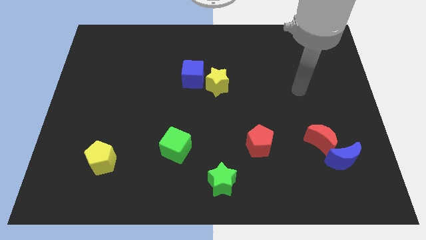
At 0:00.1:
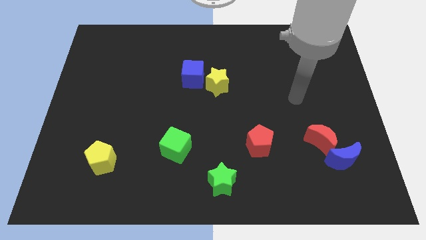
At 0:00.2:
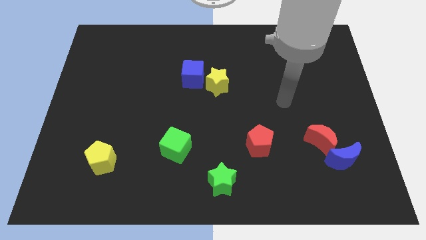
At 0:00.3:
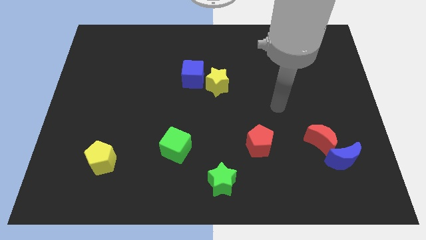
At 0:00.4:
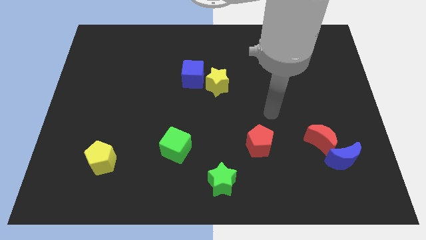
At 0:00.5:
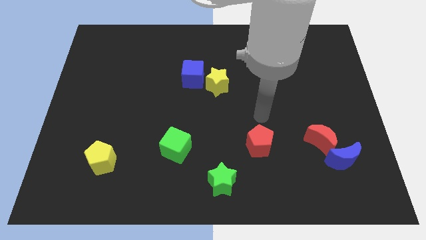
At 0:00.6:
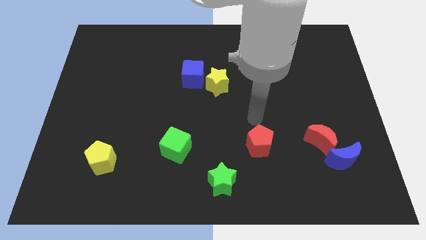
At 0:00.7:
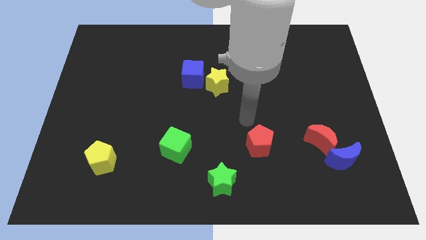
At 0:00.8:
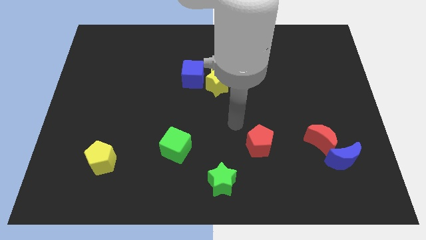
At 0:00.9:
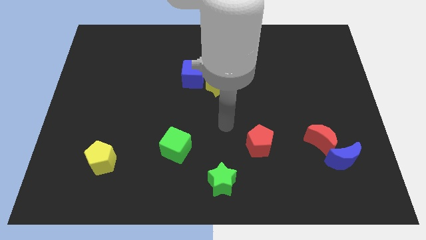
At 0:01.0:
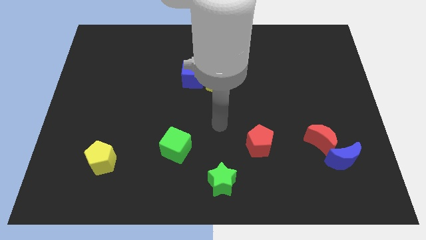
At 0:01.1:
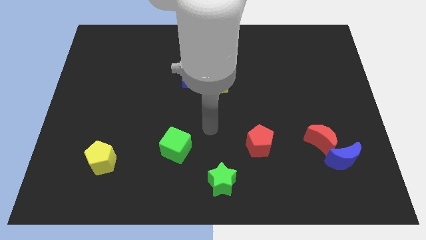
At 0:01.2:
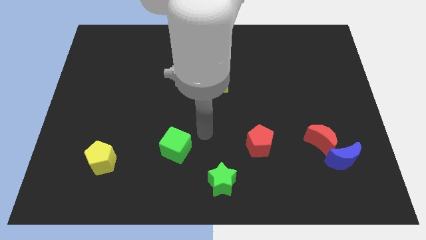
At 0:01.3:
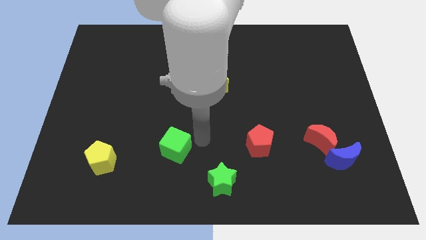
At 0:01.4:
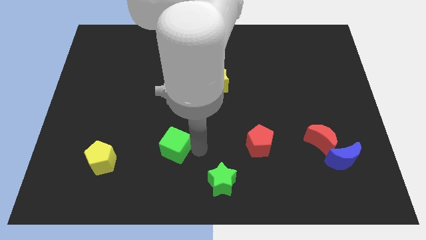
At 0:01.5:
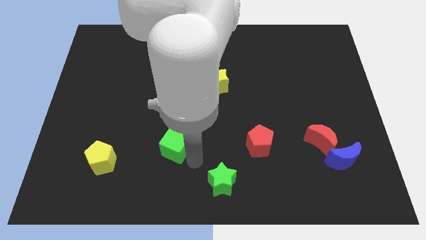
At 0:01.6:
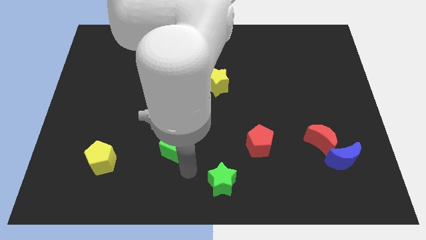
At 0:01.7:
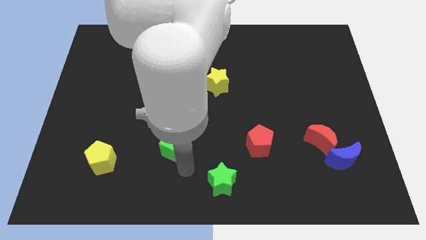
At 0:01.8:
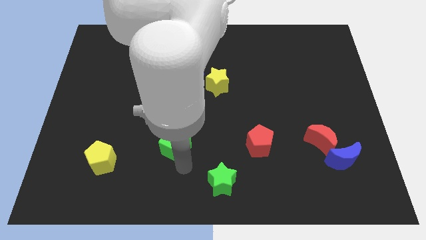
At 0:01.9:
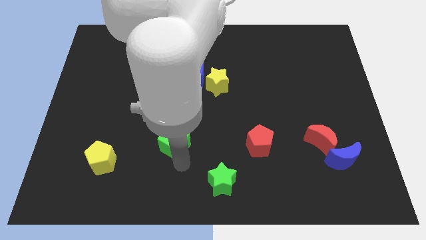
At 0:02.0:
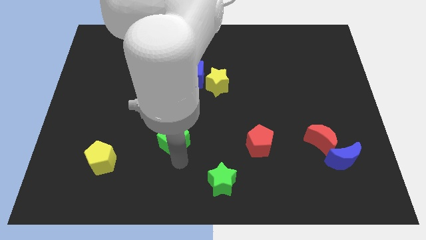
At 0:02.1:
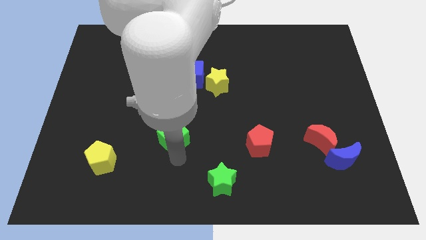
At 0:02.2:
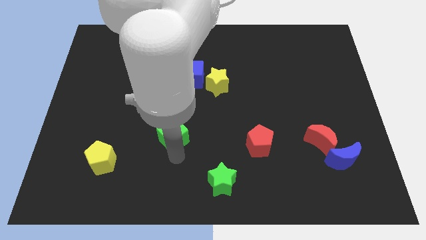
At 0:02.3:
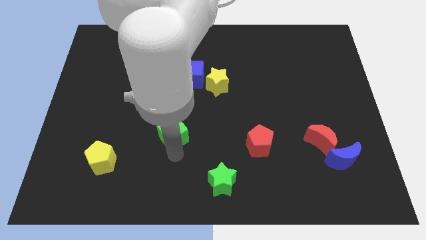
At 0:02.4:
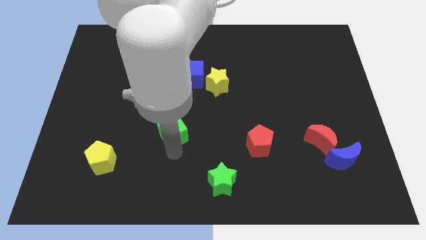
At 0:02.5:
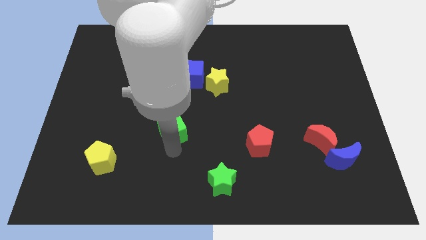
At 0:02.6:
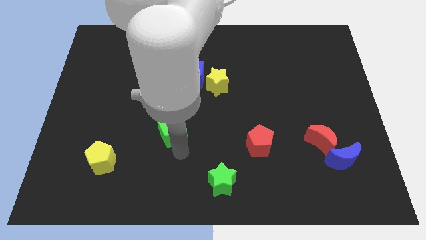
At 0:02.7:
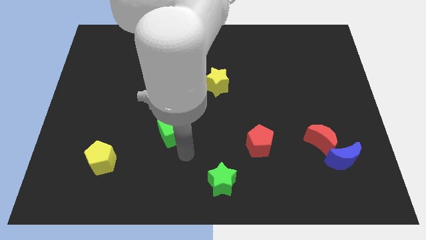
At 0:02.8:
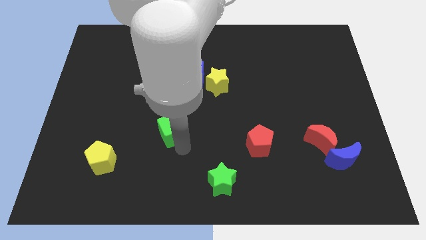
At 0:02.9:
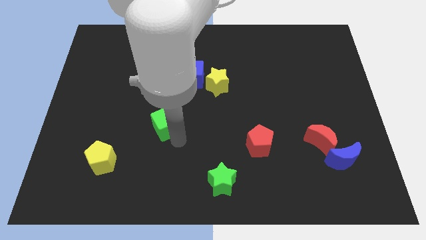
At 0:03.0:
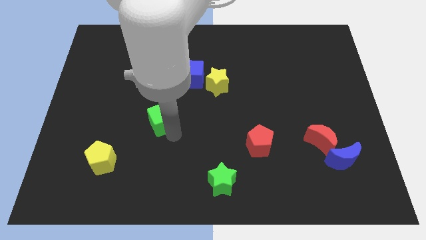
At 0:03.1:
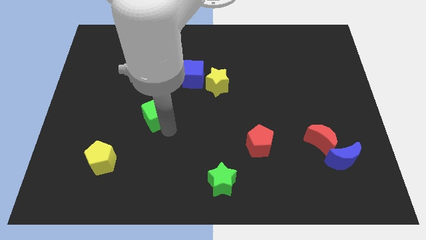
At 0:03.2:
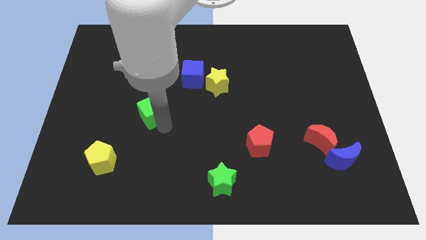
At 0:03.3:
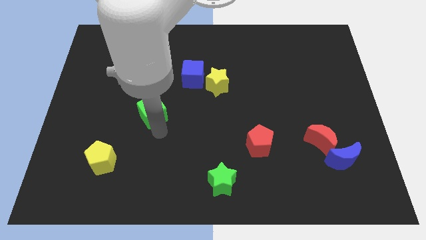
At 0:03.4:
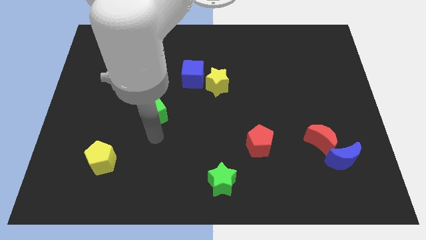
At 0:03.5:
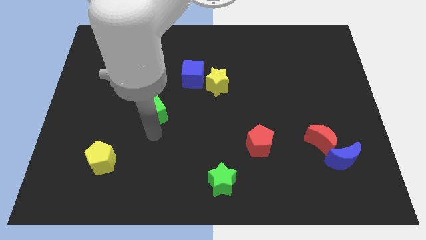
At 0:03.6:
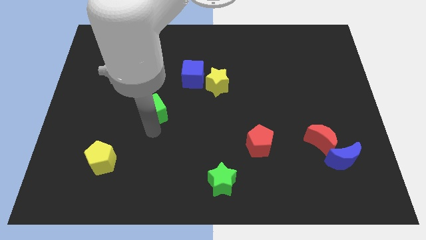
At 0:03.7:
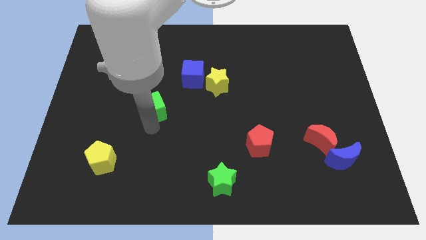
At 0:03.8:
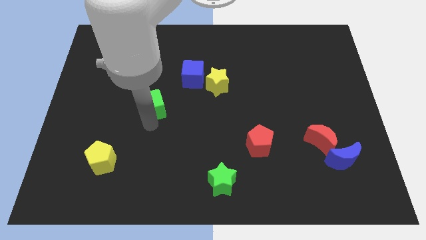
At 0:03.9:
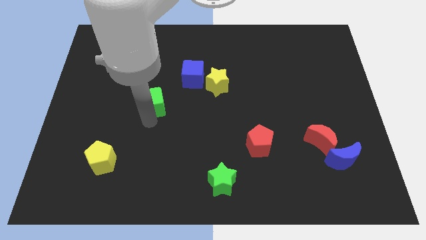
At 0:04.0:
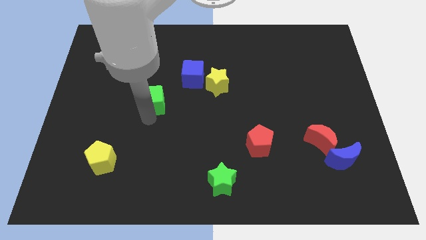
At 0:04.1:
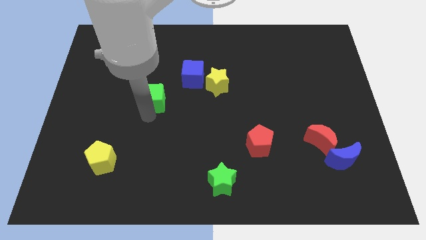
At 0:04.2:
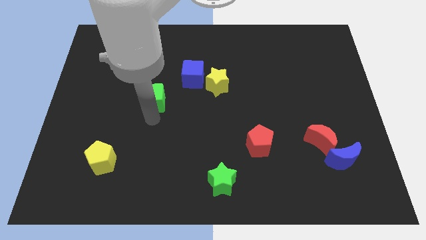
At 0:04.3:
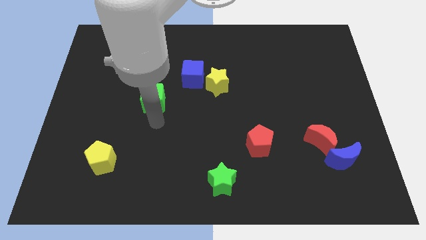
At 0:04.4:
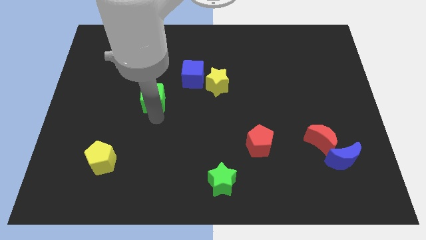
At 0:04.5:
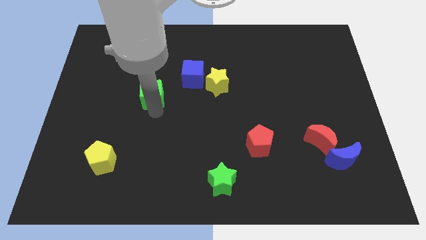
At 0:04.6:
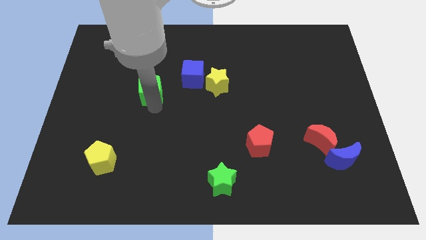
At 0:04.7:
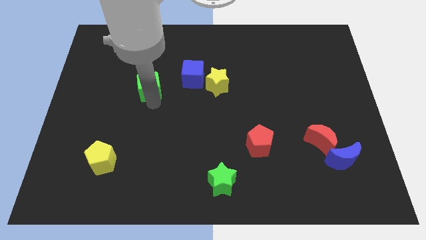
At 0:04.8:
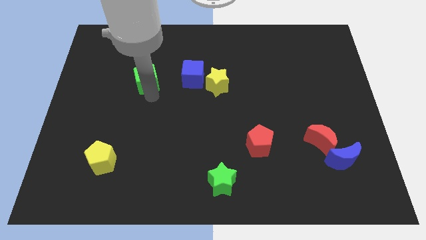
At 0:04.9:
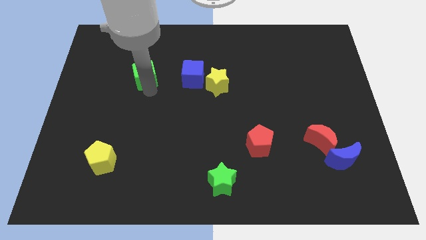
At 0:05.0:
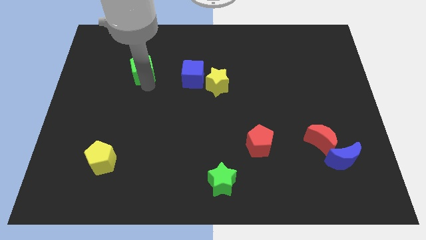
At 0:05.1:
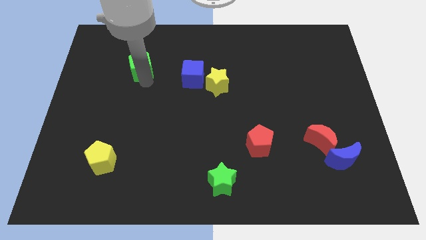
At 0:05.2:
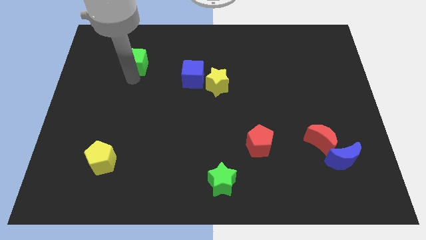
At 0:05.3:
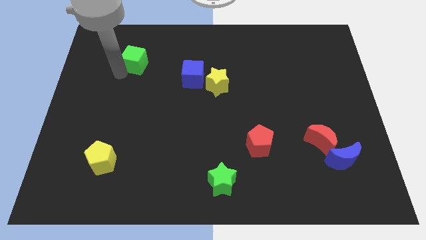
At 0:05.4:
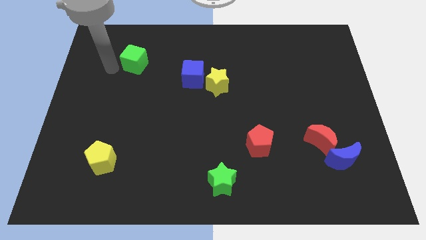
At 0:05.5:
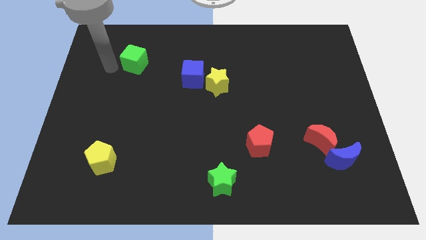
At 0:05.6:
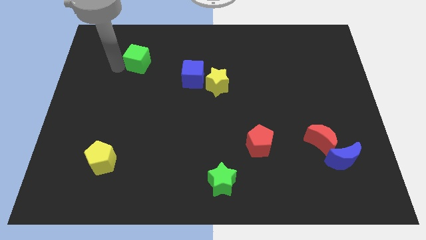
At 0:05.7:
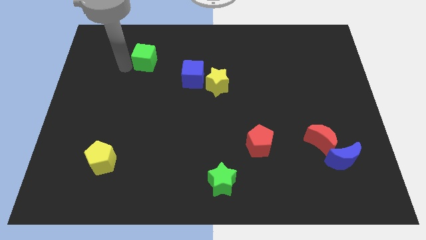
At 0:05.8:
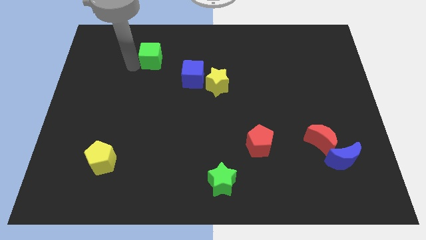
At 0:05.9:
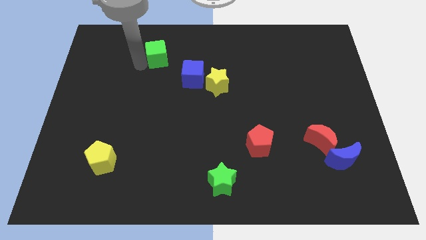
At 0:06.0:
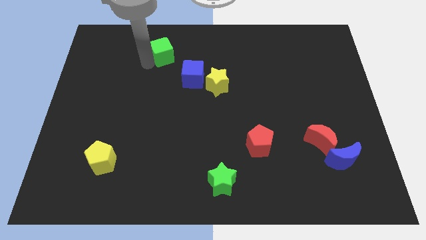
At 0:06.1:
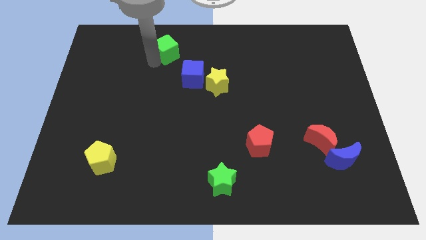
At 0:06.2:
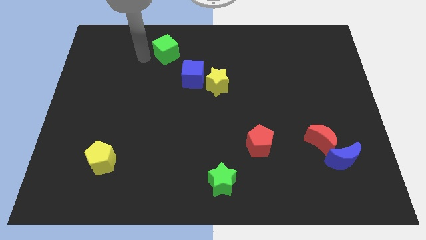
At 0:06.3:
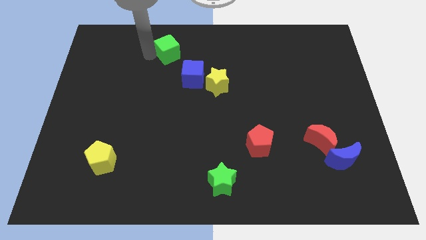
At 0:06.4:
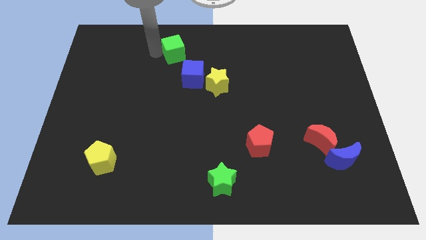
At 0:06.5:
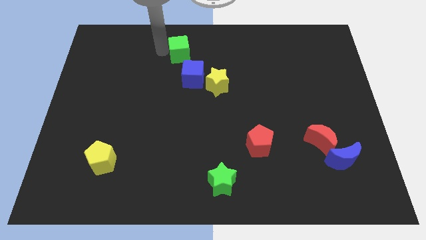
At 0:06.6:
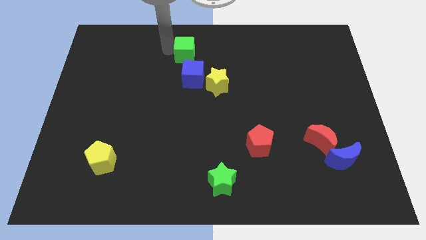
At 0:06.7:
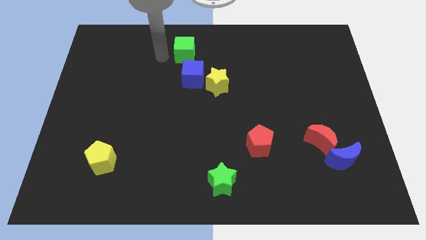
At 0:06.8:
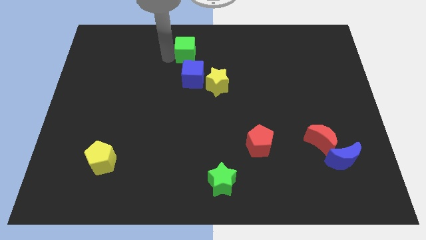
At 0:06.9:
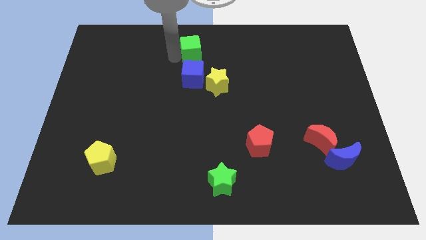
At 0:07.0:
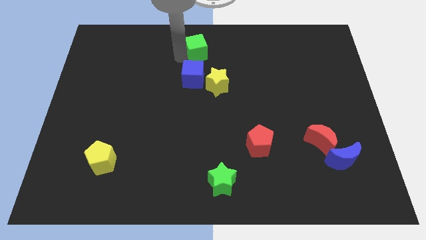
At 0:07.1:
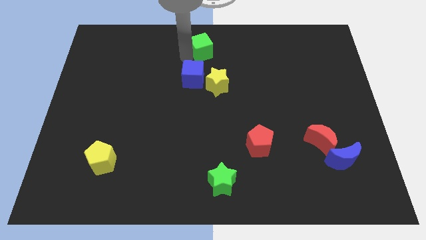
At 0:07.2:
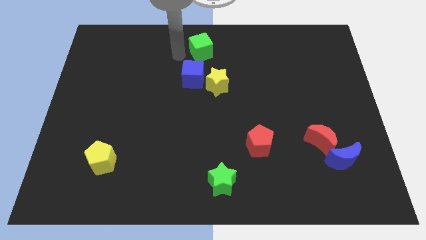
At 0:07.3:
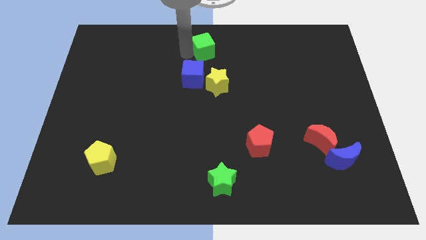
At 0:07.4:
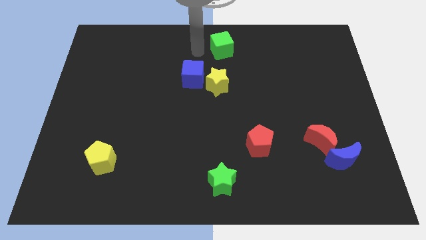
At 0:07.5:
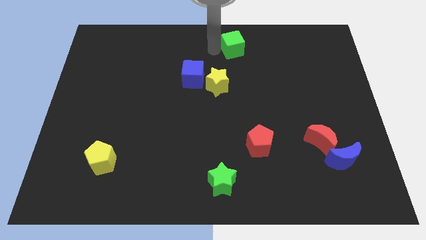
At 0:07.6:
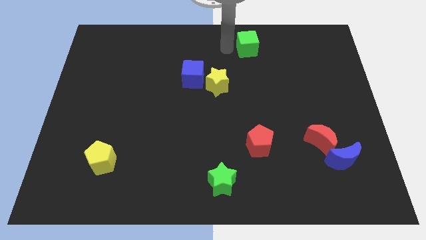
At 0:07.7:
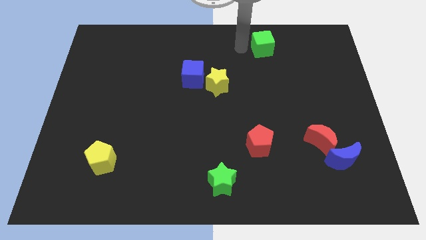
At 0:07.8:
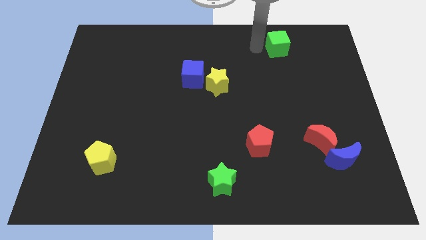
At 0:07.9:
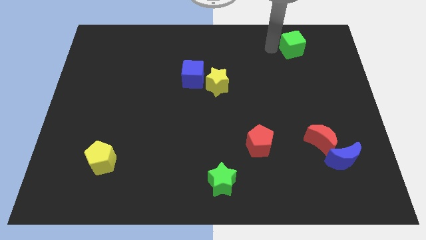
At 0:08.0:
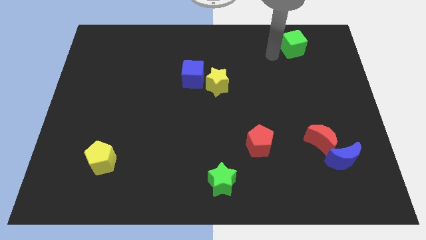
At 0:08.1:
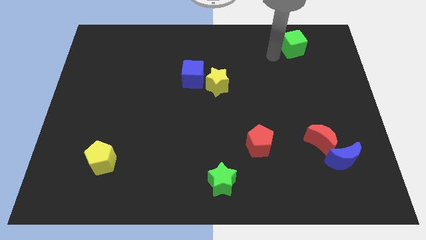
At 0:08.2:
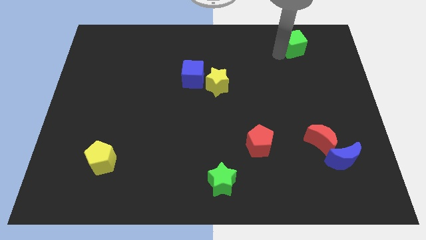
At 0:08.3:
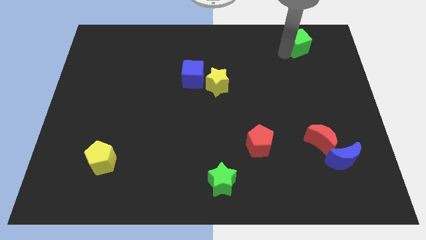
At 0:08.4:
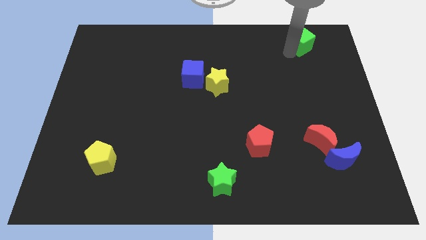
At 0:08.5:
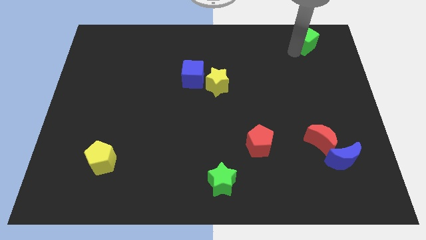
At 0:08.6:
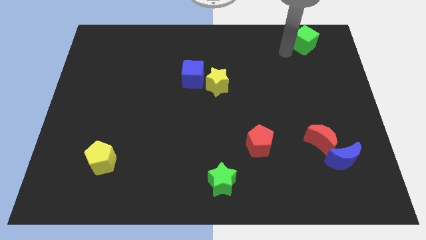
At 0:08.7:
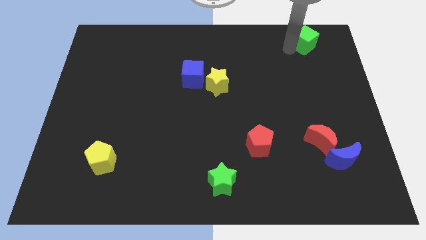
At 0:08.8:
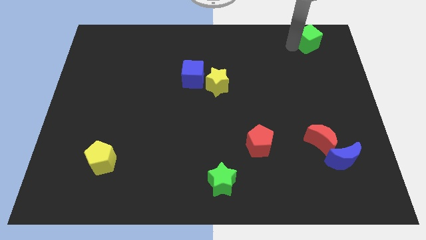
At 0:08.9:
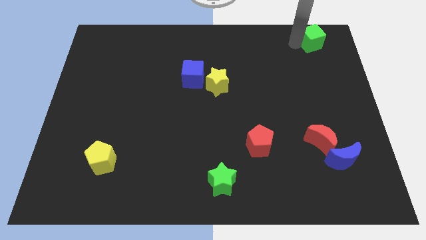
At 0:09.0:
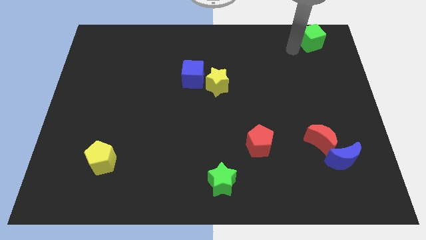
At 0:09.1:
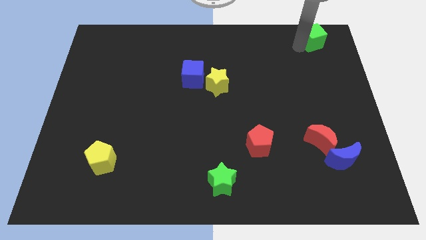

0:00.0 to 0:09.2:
push the green cube to the upper right corner
